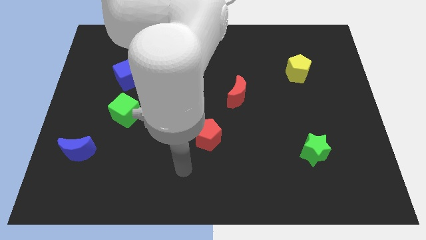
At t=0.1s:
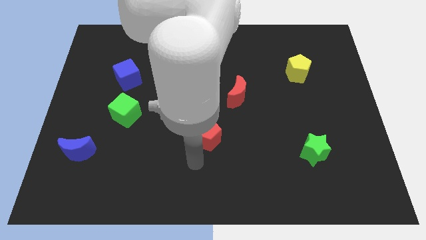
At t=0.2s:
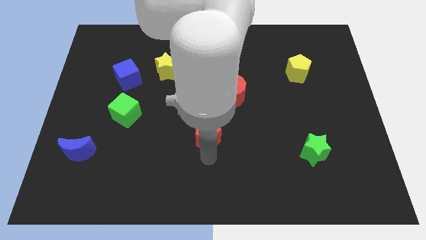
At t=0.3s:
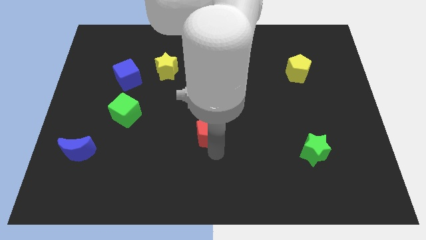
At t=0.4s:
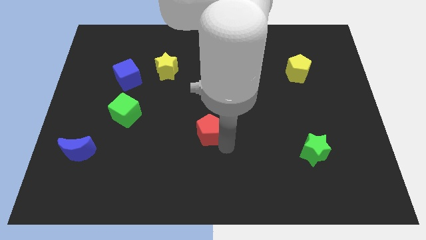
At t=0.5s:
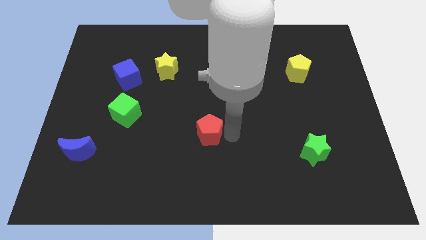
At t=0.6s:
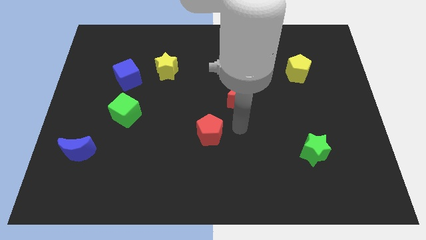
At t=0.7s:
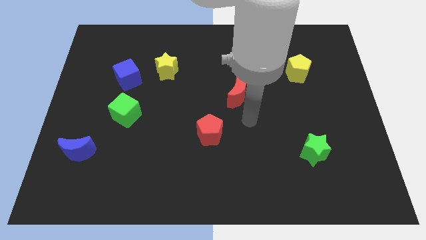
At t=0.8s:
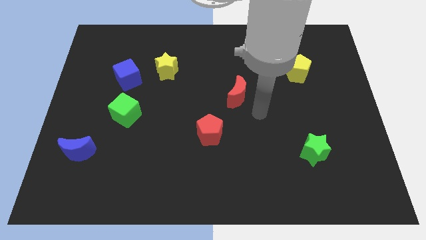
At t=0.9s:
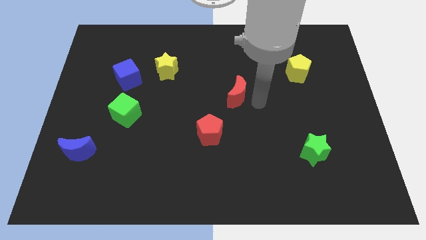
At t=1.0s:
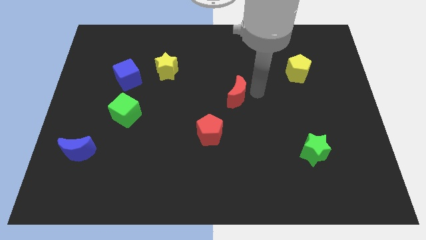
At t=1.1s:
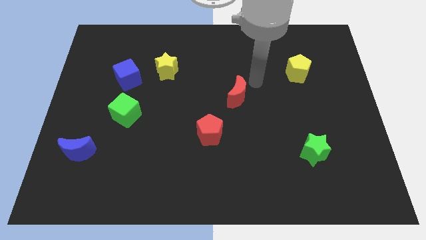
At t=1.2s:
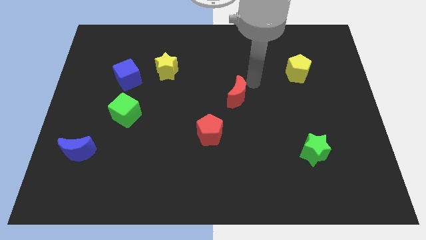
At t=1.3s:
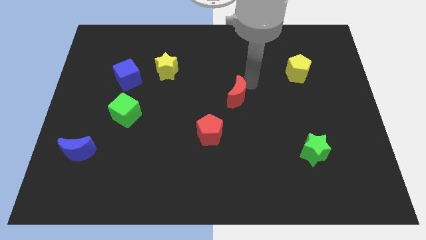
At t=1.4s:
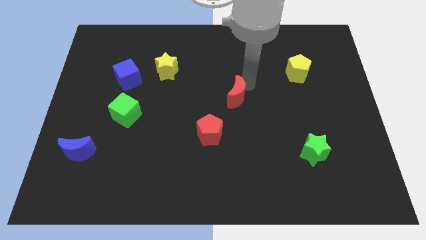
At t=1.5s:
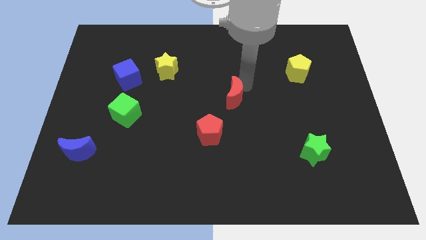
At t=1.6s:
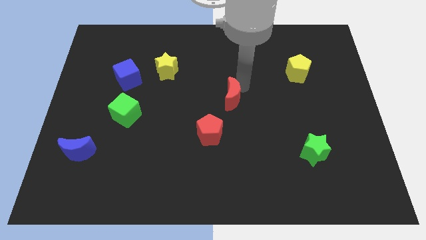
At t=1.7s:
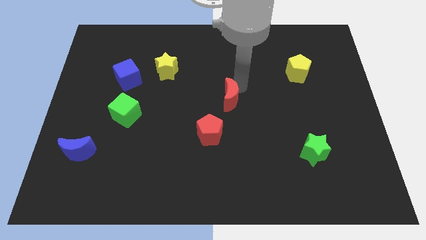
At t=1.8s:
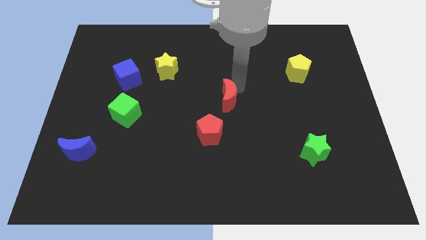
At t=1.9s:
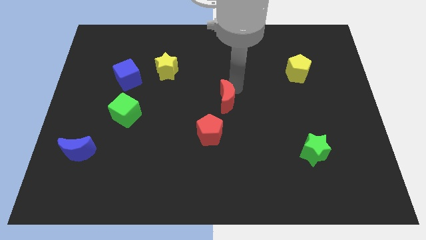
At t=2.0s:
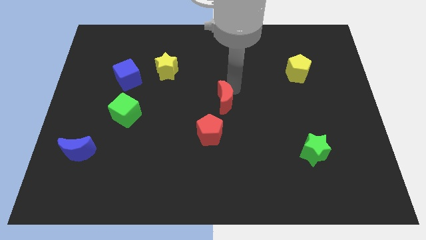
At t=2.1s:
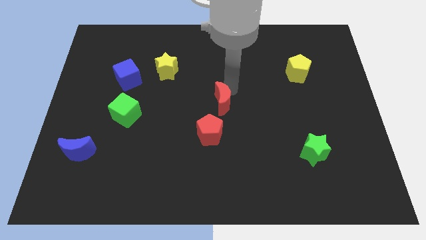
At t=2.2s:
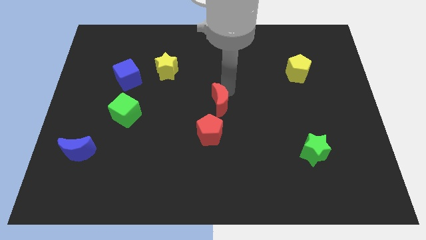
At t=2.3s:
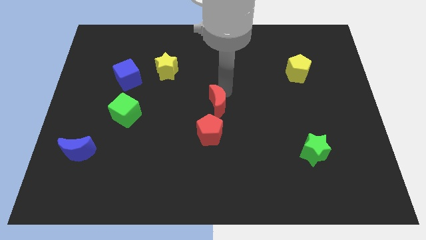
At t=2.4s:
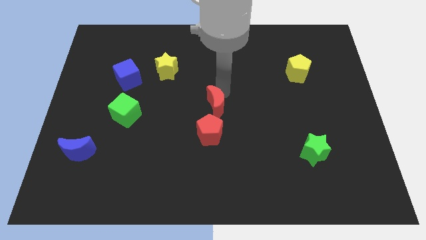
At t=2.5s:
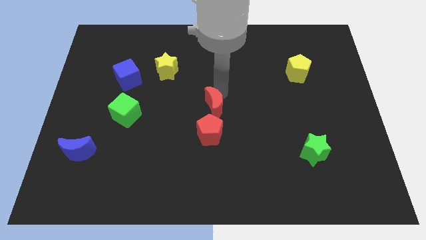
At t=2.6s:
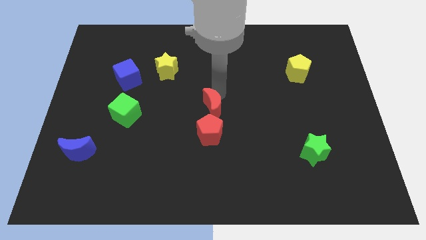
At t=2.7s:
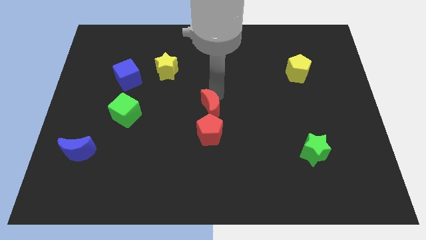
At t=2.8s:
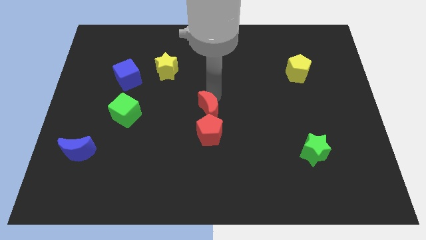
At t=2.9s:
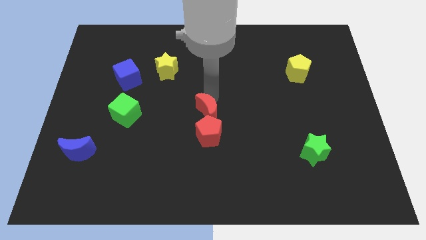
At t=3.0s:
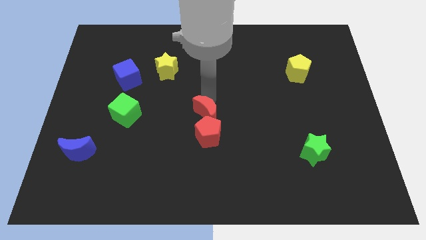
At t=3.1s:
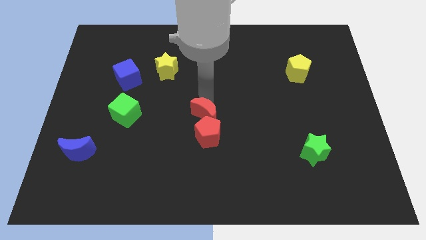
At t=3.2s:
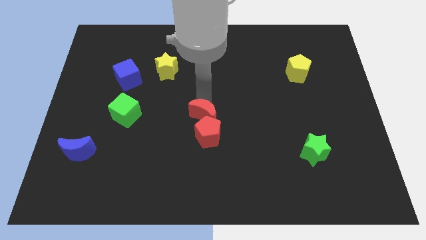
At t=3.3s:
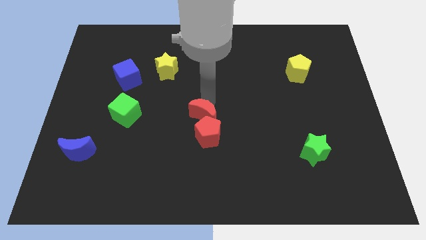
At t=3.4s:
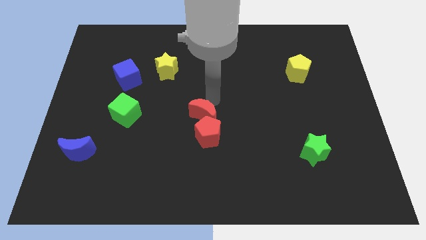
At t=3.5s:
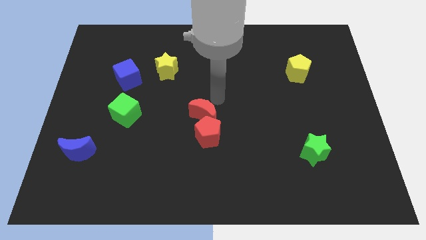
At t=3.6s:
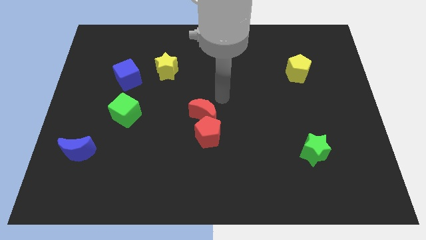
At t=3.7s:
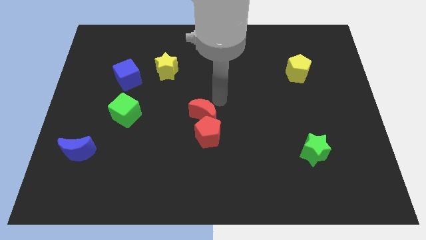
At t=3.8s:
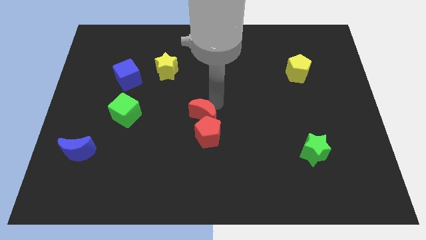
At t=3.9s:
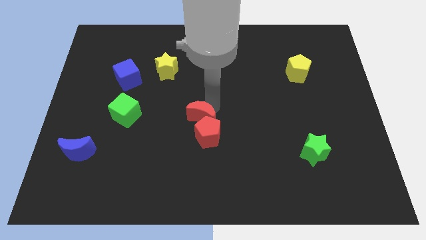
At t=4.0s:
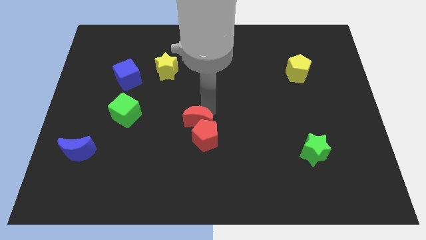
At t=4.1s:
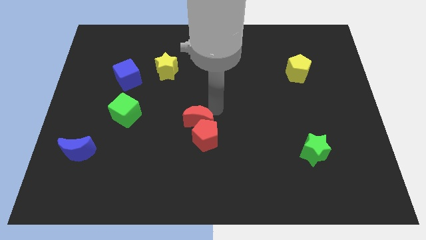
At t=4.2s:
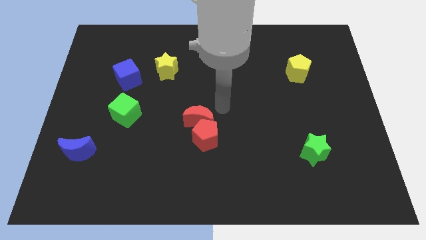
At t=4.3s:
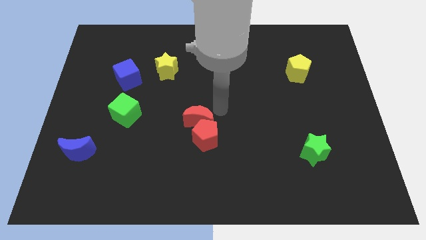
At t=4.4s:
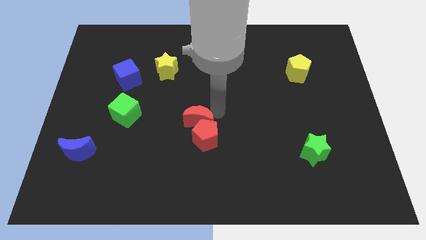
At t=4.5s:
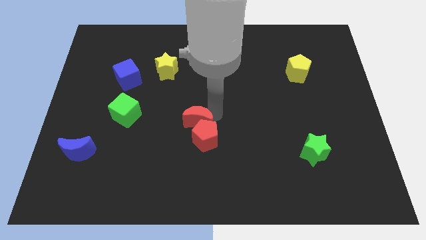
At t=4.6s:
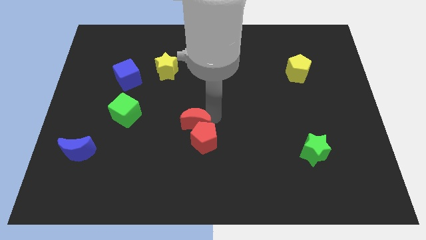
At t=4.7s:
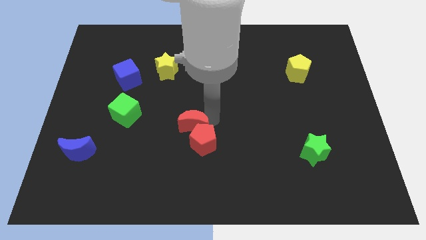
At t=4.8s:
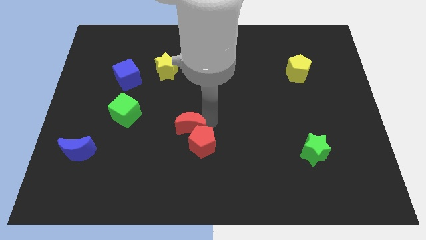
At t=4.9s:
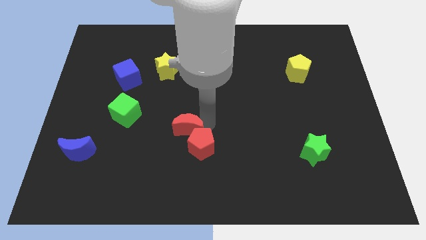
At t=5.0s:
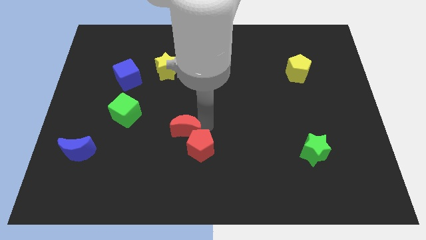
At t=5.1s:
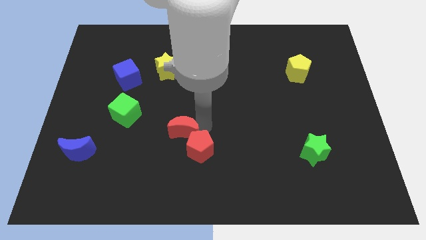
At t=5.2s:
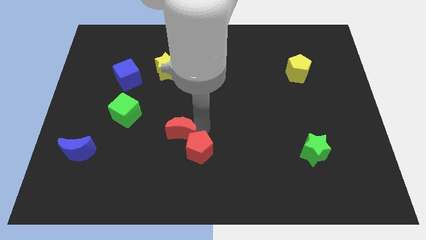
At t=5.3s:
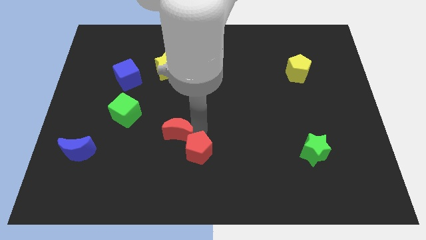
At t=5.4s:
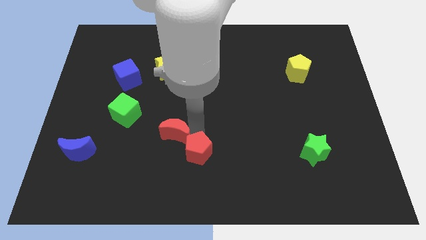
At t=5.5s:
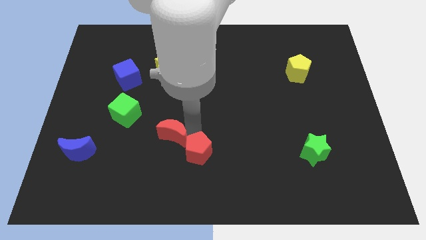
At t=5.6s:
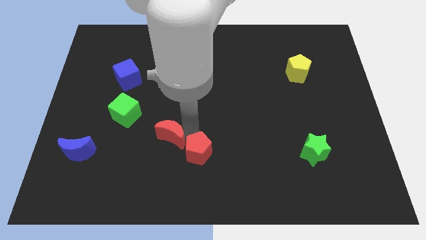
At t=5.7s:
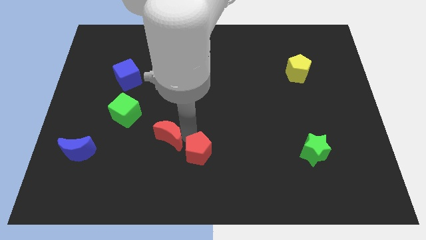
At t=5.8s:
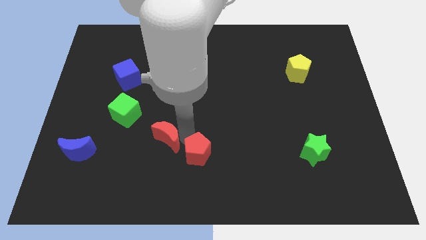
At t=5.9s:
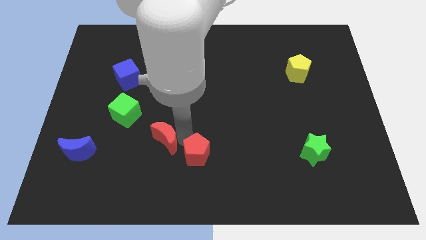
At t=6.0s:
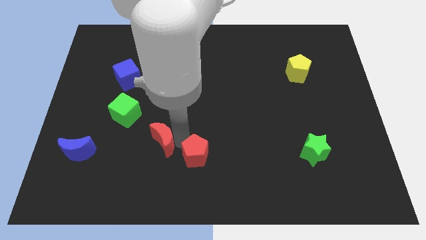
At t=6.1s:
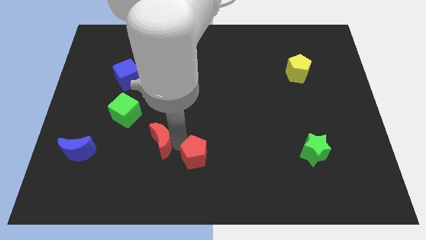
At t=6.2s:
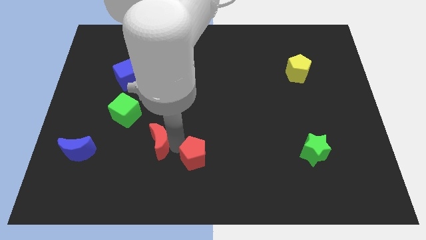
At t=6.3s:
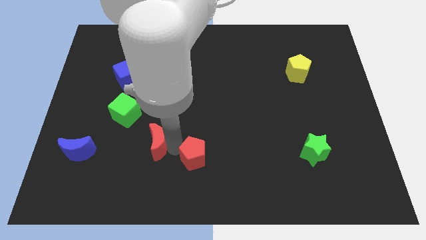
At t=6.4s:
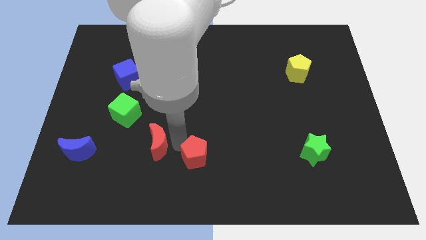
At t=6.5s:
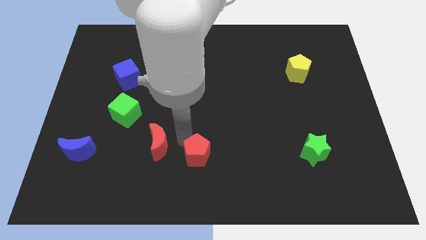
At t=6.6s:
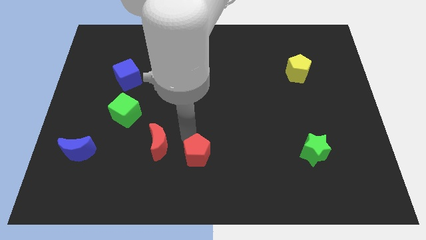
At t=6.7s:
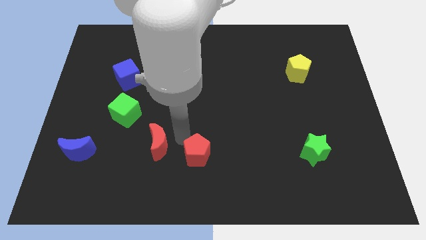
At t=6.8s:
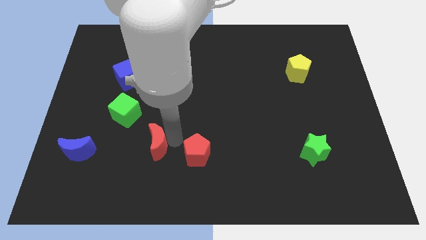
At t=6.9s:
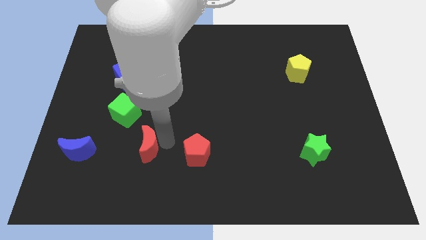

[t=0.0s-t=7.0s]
push the red moon to the right of the blue moon

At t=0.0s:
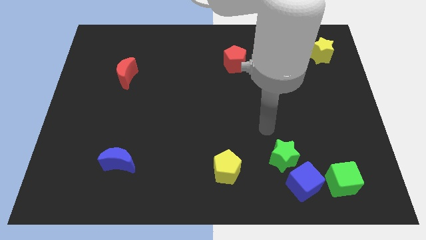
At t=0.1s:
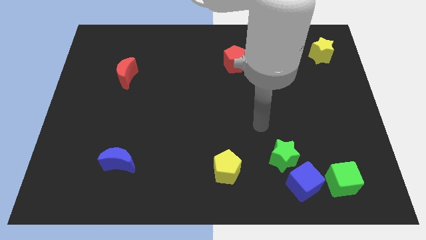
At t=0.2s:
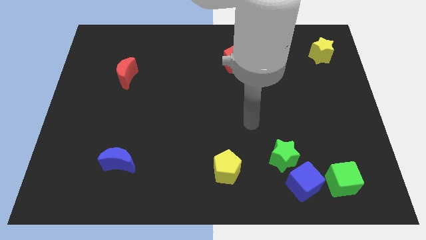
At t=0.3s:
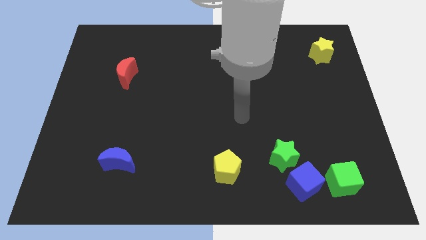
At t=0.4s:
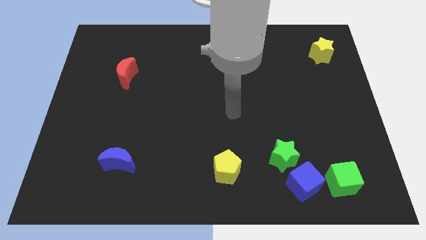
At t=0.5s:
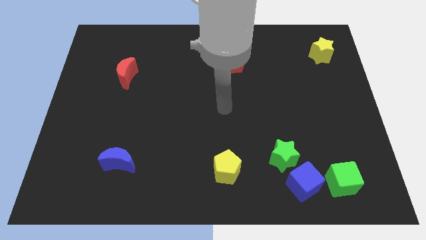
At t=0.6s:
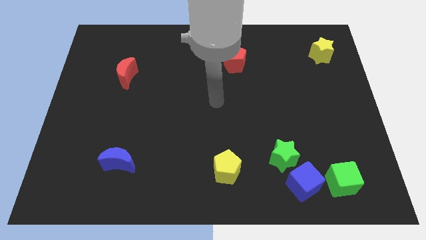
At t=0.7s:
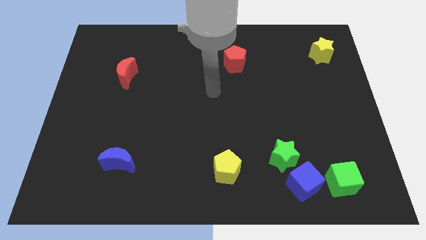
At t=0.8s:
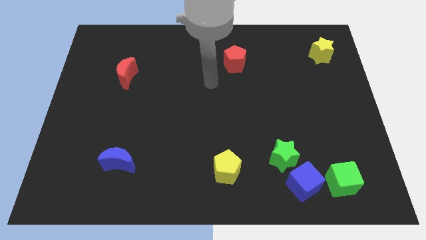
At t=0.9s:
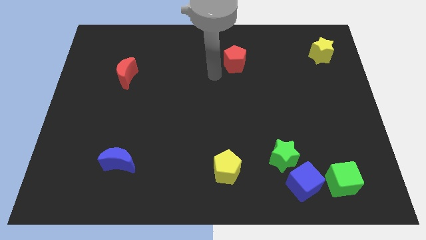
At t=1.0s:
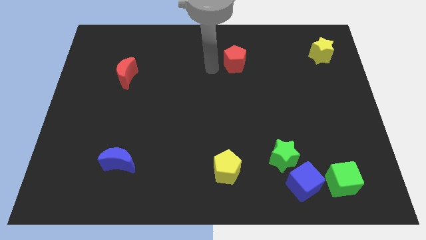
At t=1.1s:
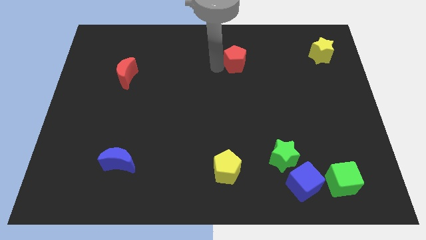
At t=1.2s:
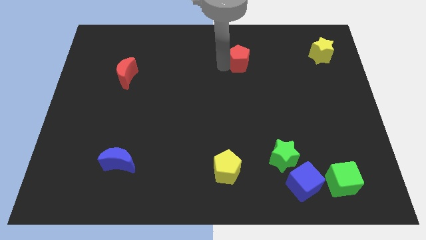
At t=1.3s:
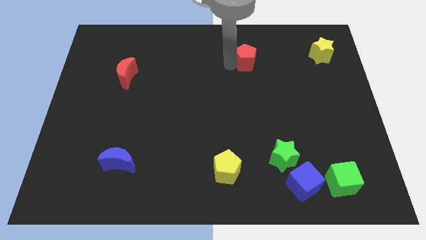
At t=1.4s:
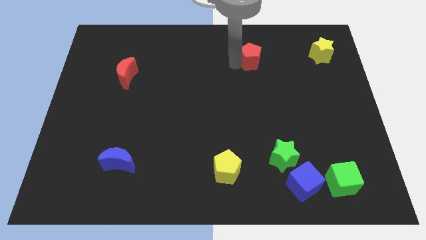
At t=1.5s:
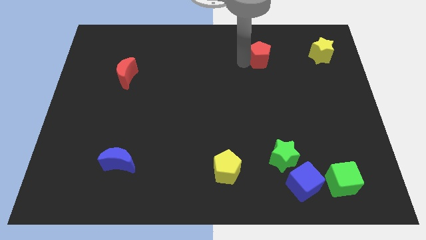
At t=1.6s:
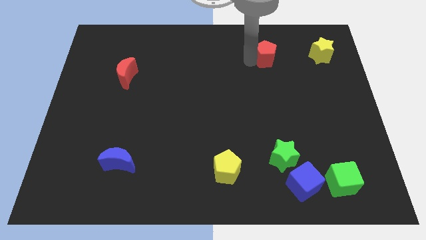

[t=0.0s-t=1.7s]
put the red pentagon to the left side of the yellow star
